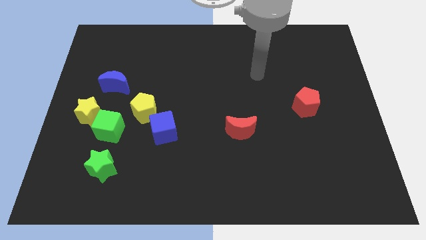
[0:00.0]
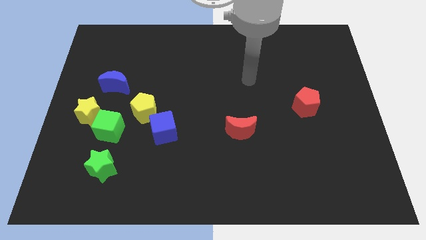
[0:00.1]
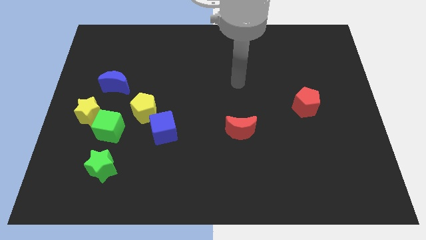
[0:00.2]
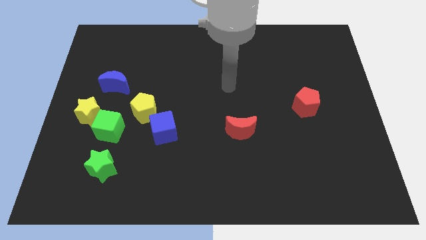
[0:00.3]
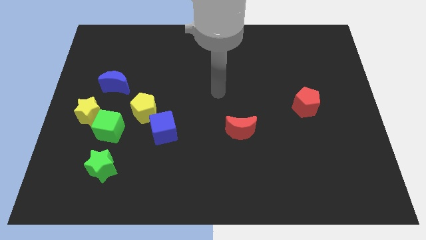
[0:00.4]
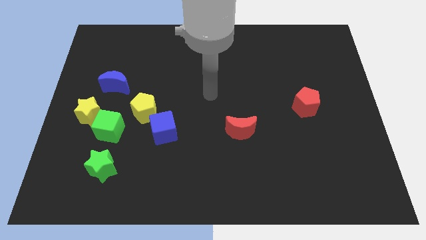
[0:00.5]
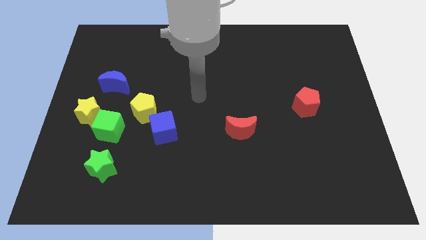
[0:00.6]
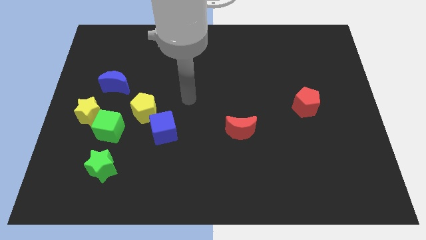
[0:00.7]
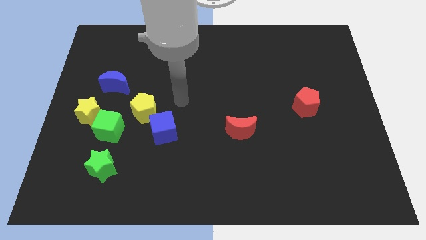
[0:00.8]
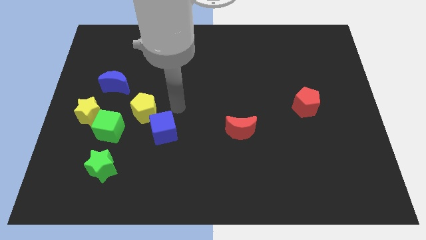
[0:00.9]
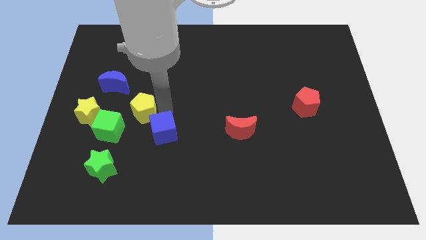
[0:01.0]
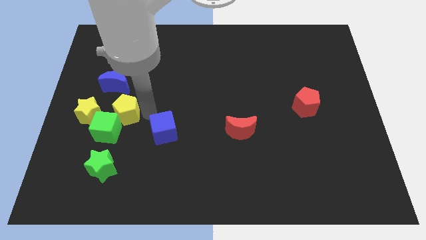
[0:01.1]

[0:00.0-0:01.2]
move the blue cube away from the yellow pentagon

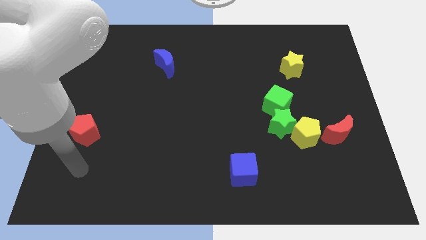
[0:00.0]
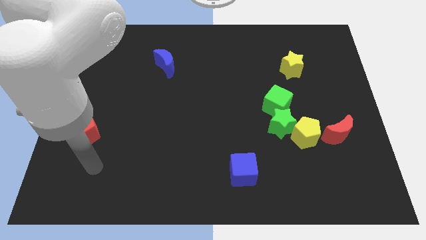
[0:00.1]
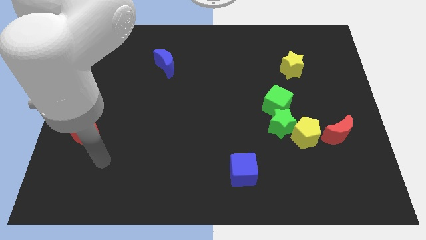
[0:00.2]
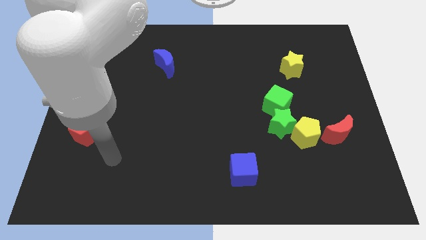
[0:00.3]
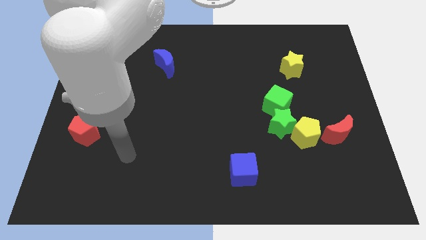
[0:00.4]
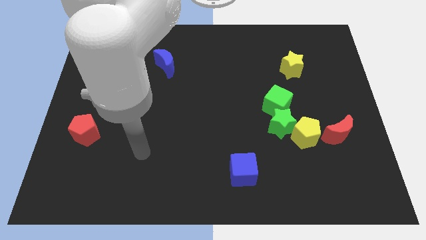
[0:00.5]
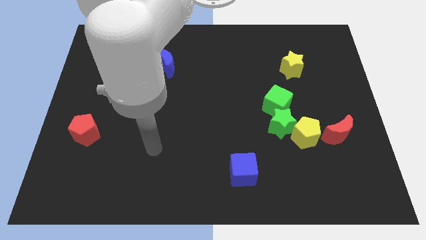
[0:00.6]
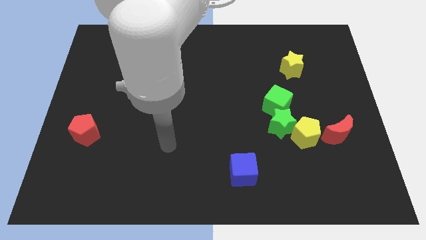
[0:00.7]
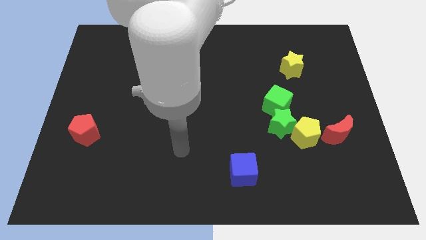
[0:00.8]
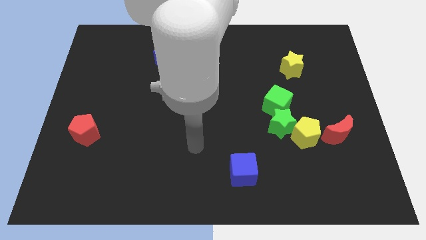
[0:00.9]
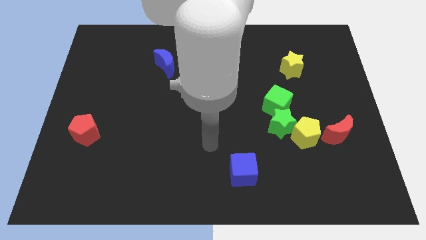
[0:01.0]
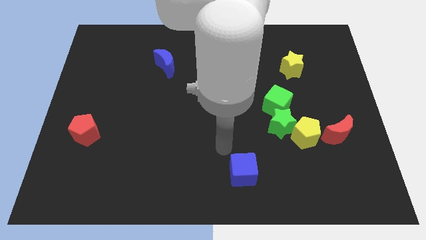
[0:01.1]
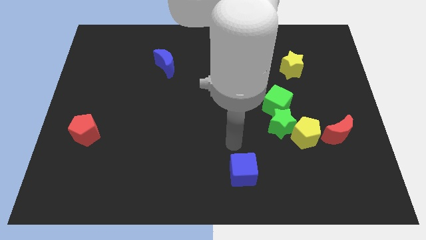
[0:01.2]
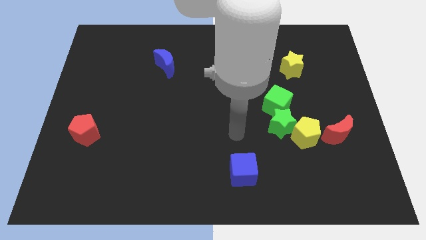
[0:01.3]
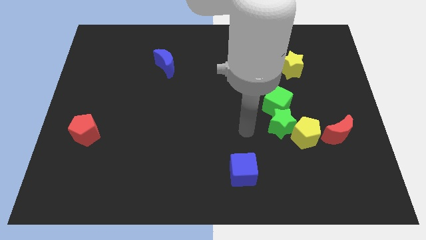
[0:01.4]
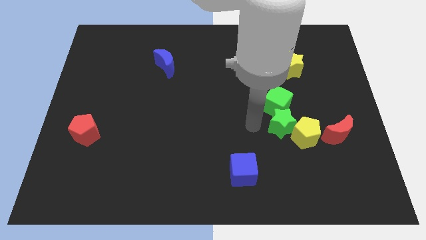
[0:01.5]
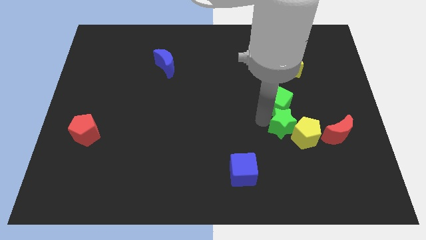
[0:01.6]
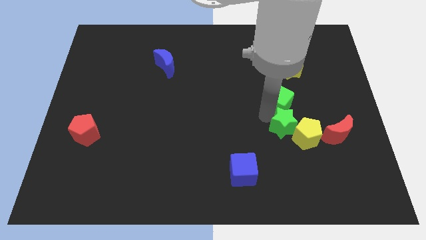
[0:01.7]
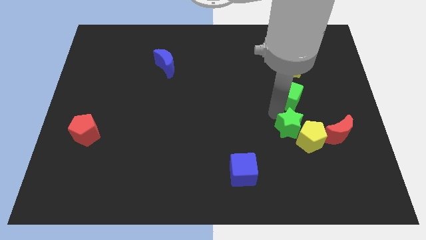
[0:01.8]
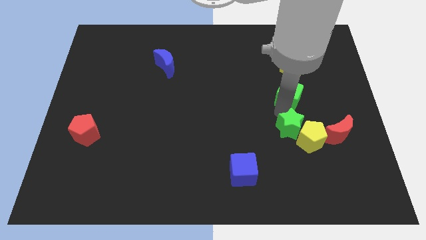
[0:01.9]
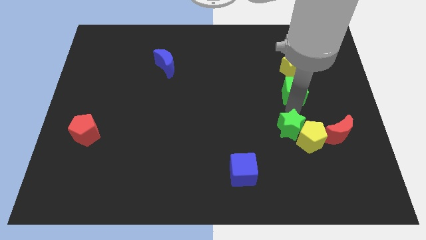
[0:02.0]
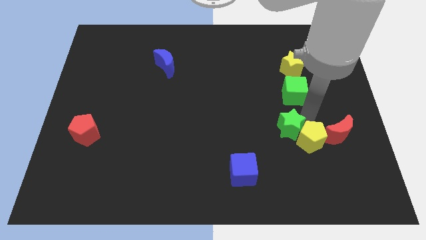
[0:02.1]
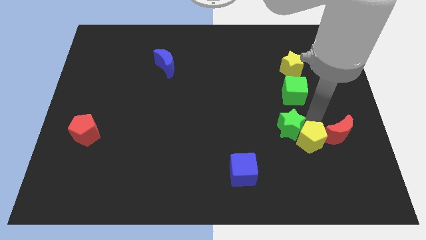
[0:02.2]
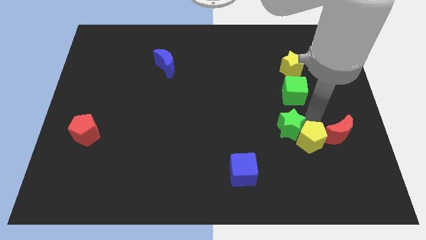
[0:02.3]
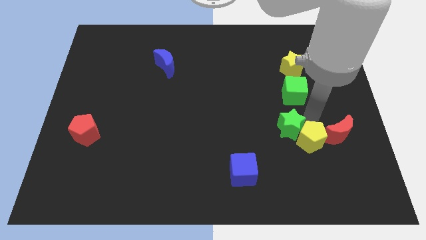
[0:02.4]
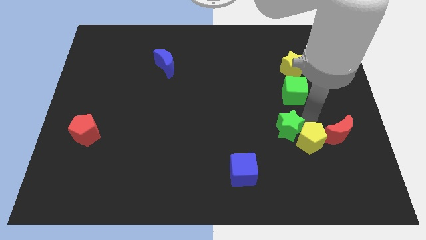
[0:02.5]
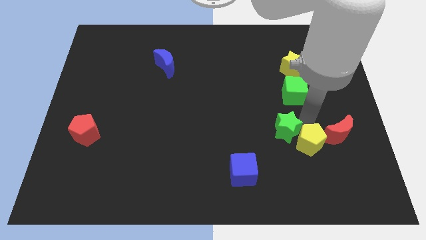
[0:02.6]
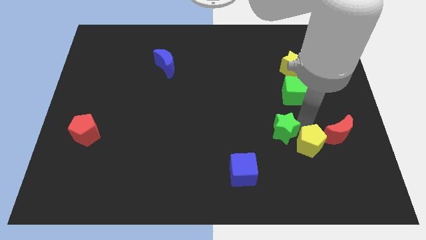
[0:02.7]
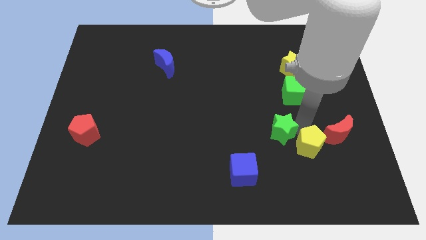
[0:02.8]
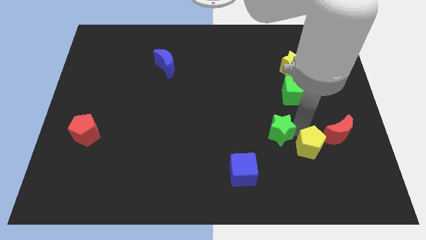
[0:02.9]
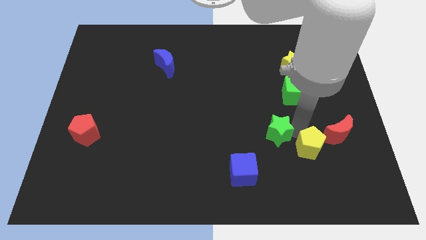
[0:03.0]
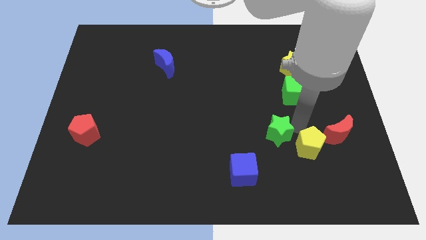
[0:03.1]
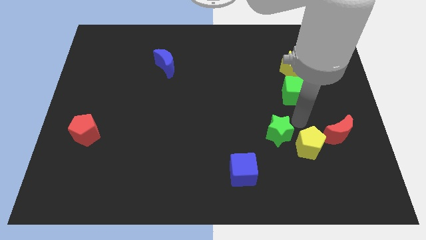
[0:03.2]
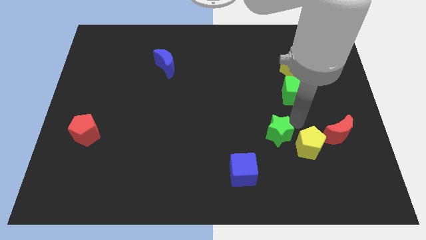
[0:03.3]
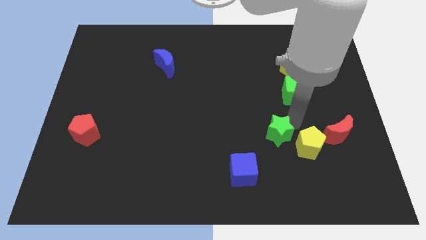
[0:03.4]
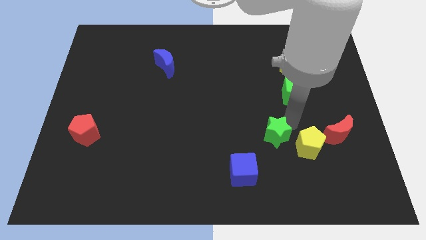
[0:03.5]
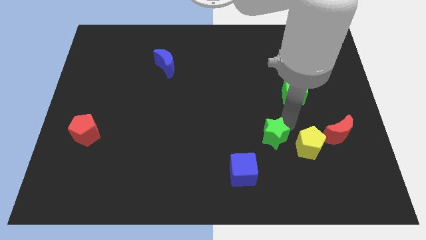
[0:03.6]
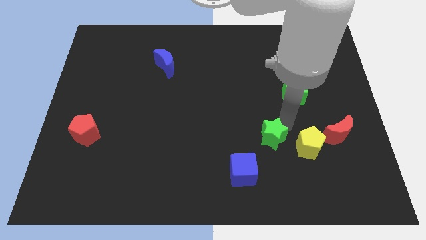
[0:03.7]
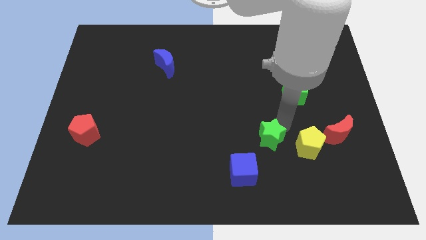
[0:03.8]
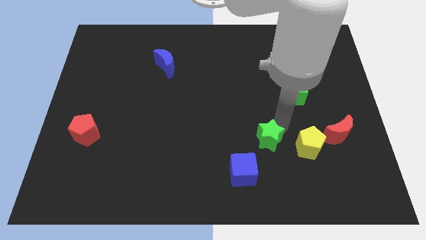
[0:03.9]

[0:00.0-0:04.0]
pull the green star apart from the yellow pentagon and green cube

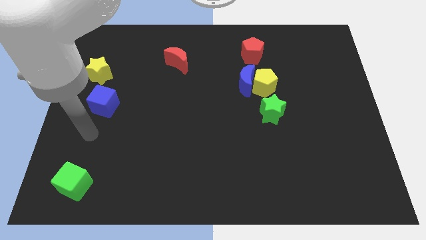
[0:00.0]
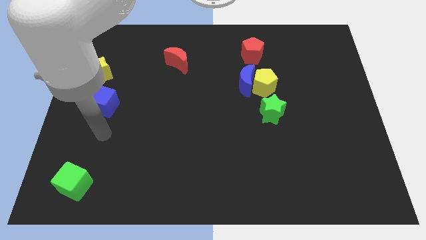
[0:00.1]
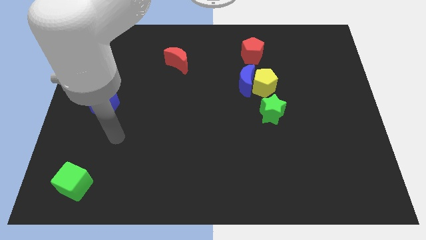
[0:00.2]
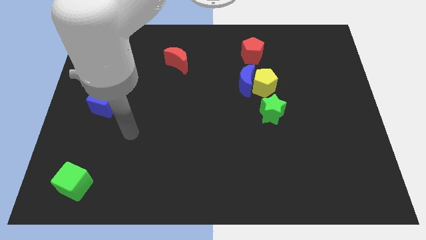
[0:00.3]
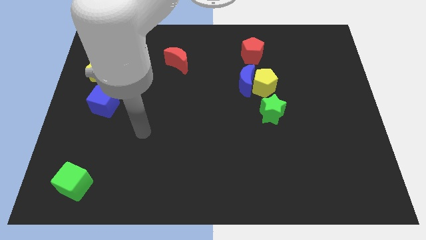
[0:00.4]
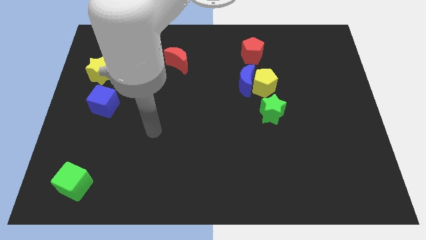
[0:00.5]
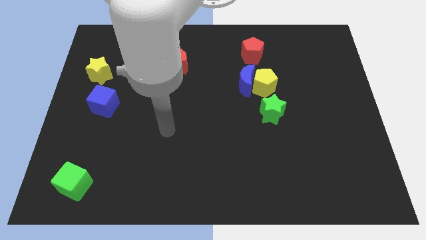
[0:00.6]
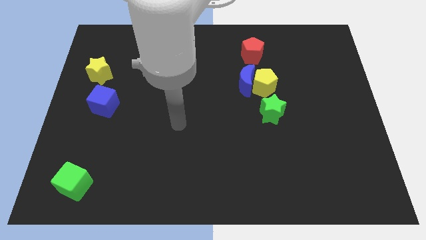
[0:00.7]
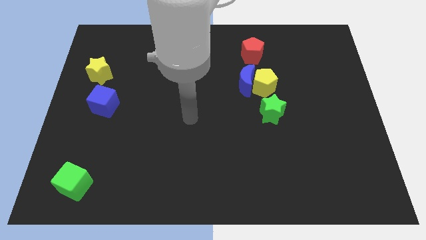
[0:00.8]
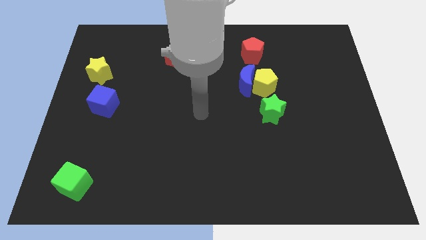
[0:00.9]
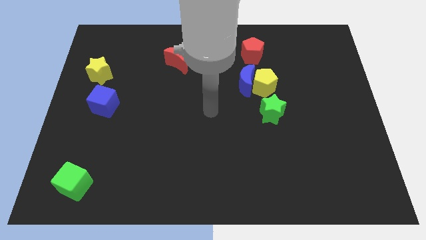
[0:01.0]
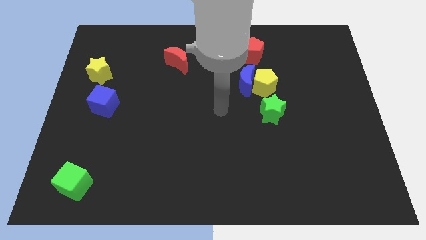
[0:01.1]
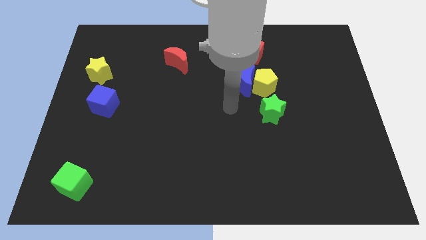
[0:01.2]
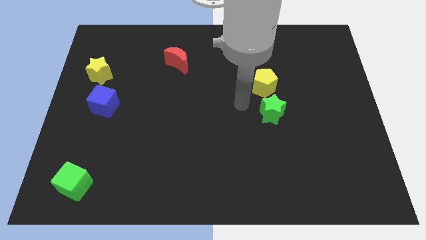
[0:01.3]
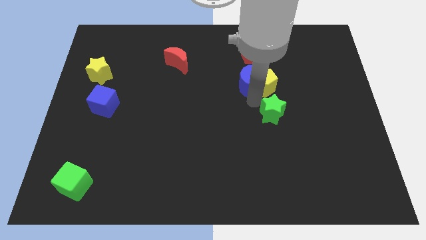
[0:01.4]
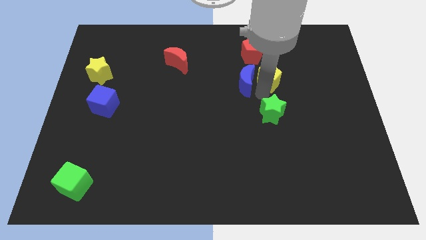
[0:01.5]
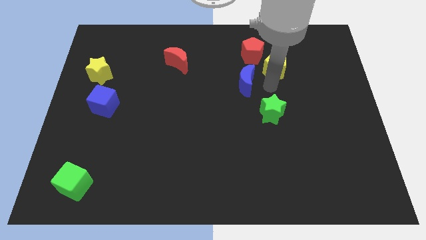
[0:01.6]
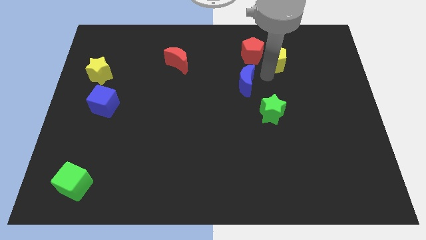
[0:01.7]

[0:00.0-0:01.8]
pull the blue moon apart from the yellow pentagon

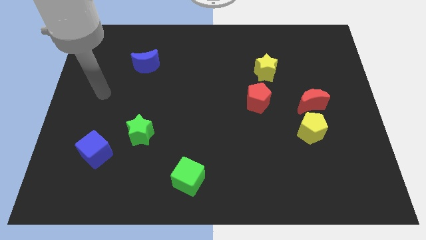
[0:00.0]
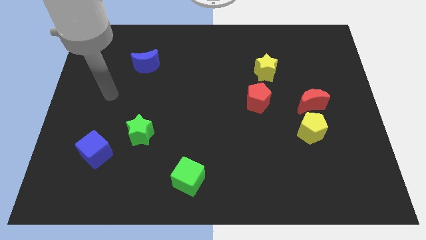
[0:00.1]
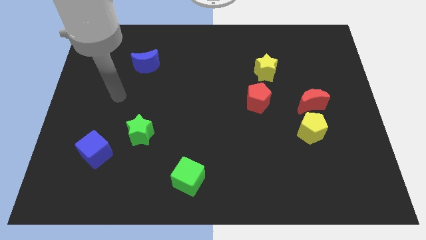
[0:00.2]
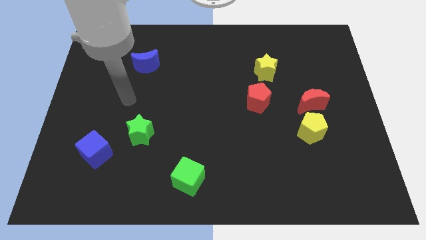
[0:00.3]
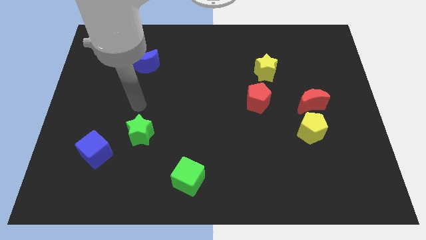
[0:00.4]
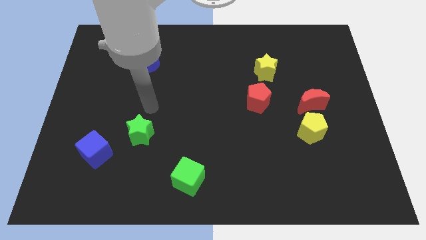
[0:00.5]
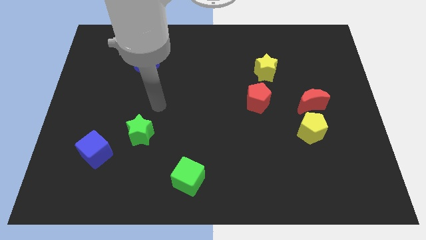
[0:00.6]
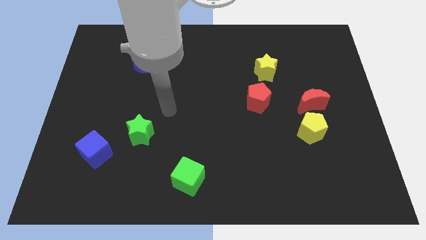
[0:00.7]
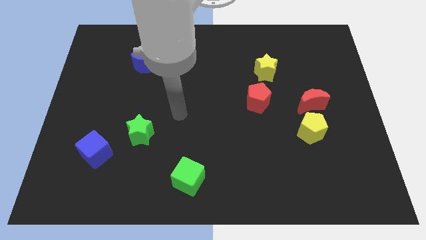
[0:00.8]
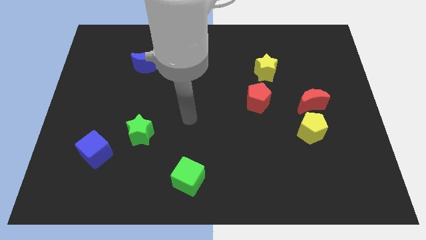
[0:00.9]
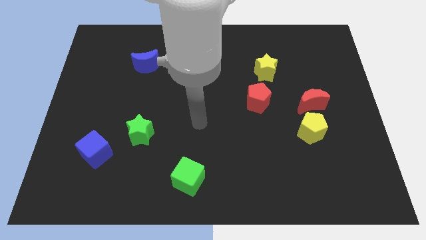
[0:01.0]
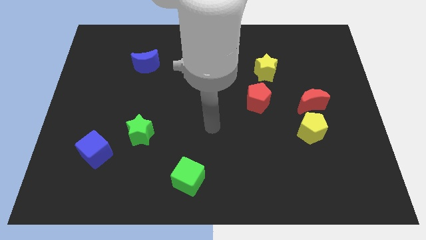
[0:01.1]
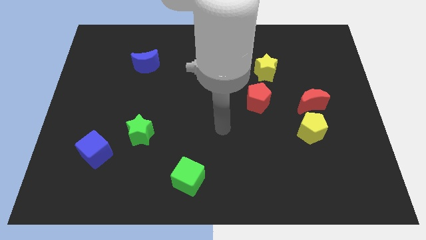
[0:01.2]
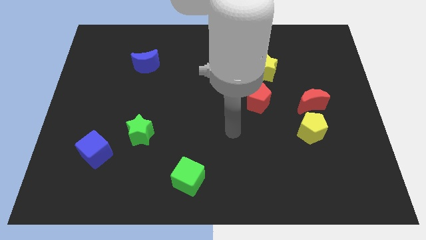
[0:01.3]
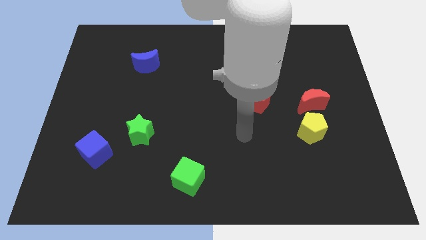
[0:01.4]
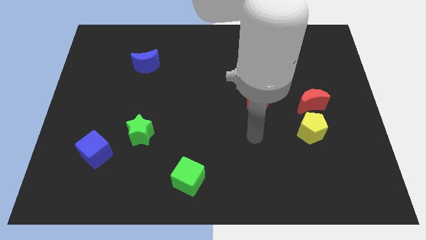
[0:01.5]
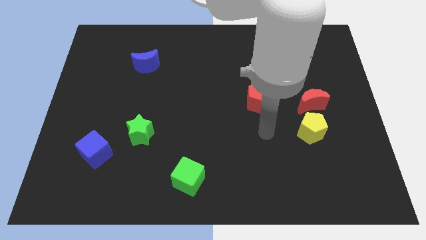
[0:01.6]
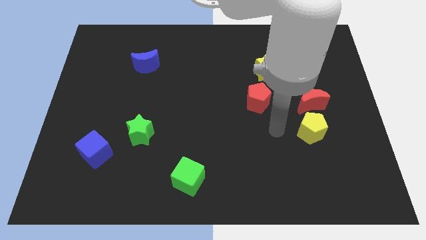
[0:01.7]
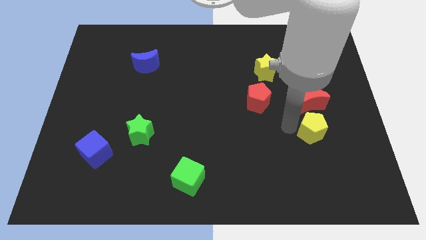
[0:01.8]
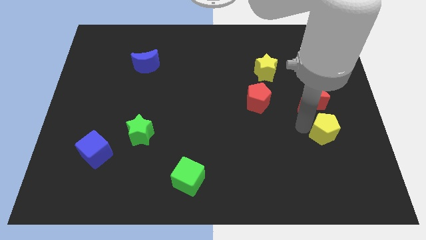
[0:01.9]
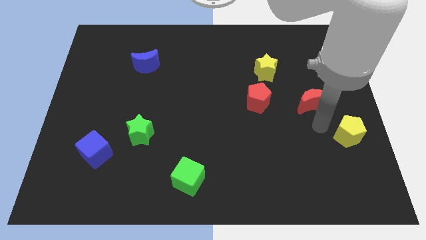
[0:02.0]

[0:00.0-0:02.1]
move the red moon away from the yellow pentagon

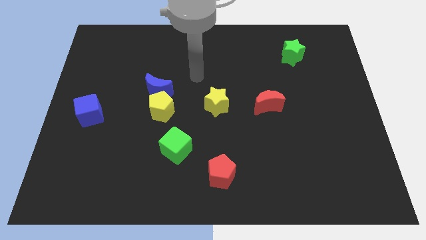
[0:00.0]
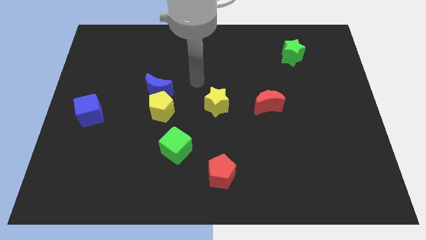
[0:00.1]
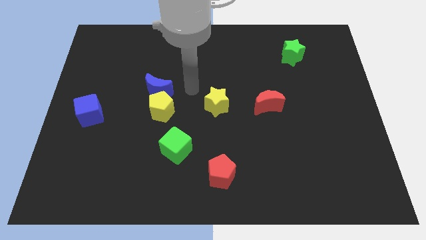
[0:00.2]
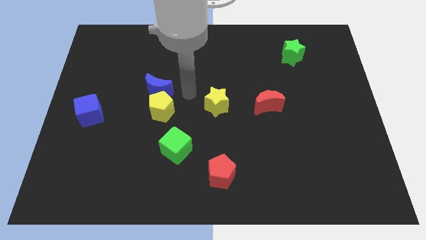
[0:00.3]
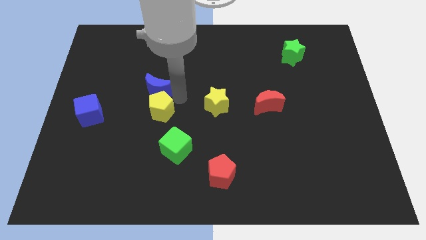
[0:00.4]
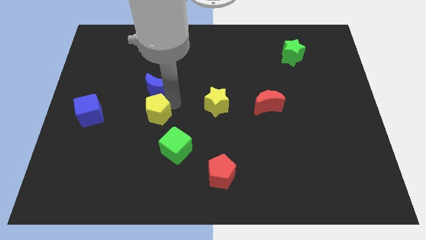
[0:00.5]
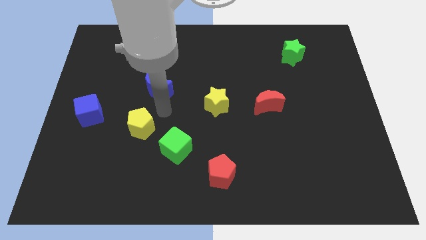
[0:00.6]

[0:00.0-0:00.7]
move the blue moon away from the yellow pentagon
